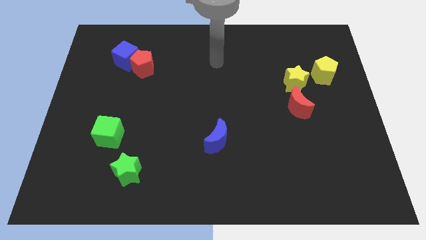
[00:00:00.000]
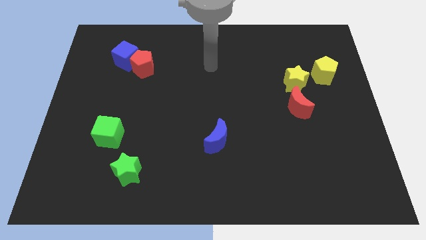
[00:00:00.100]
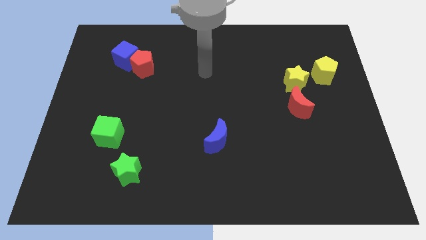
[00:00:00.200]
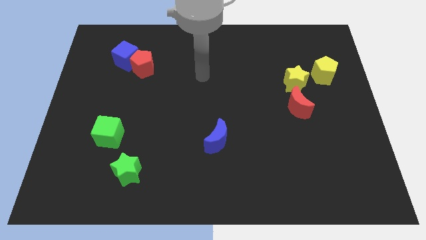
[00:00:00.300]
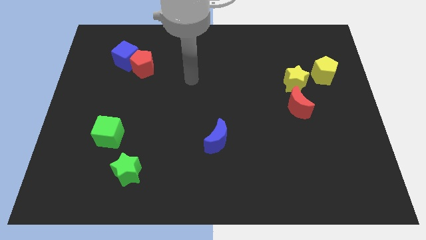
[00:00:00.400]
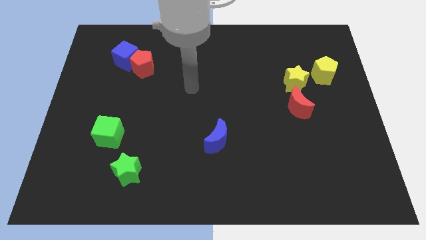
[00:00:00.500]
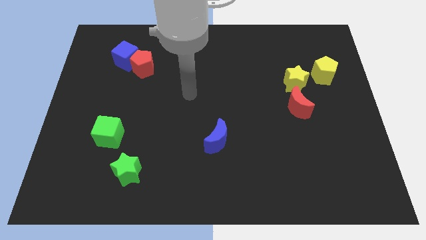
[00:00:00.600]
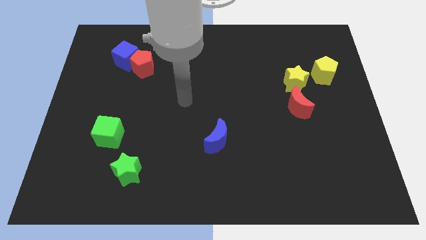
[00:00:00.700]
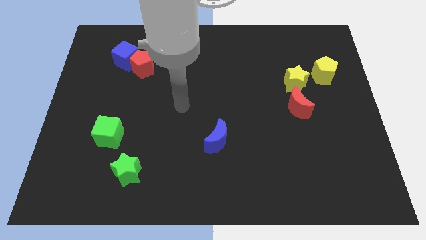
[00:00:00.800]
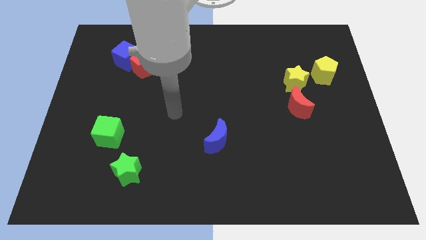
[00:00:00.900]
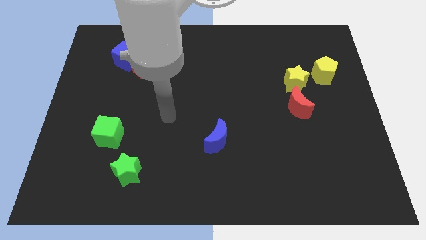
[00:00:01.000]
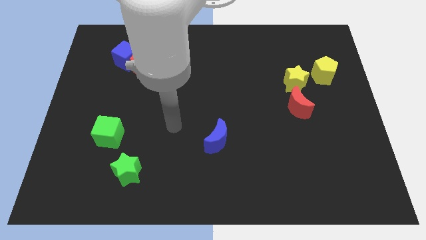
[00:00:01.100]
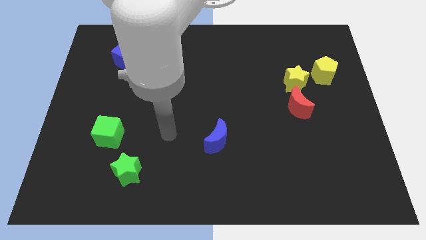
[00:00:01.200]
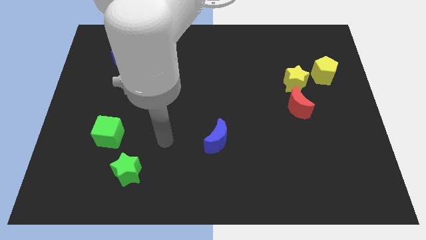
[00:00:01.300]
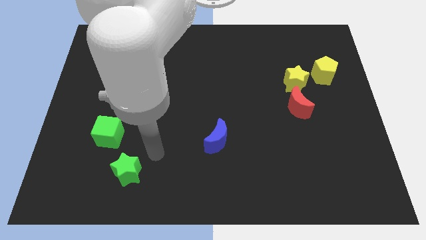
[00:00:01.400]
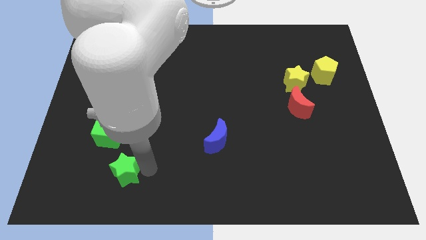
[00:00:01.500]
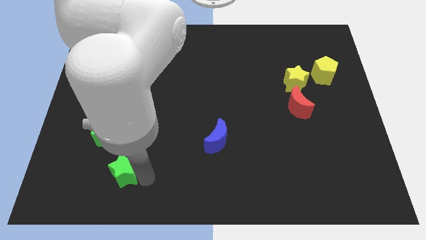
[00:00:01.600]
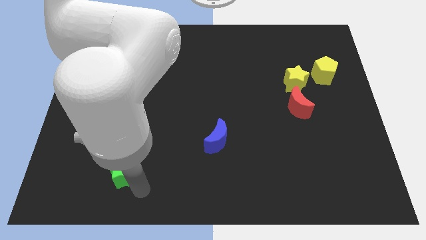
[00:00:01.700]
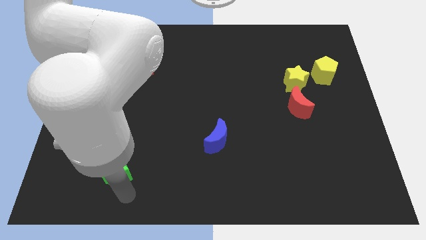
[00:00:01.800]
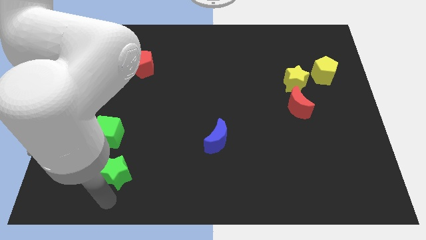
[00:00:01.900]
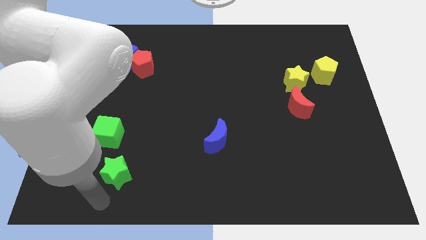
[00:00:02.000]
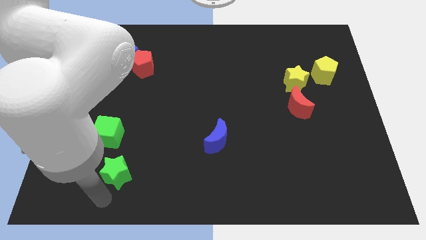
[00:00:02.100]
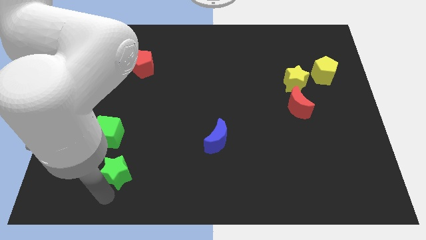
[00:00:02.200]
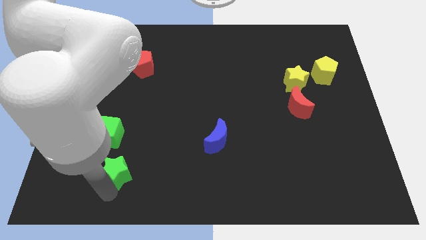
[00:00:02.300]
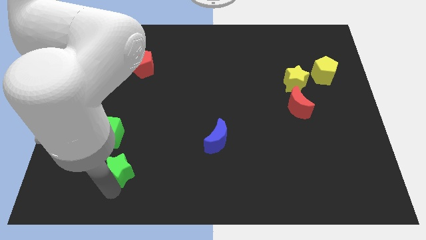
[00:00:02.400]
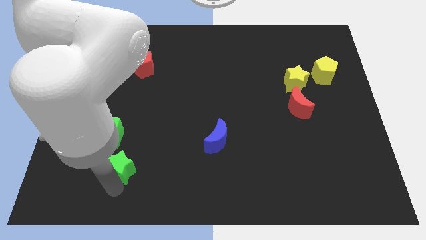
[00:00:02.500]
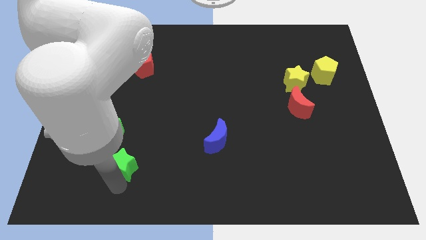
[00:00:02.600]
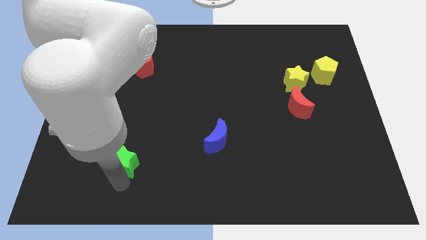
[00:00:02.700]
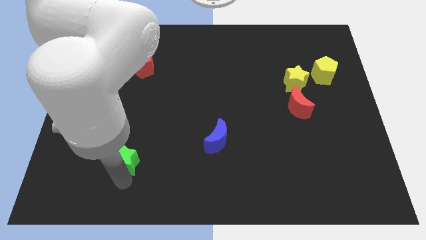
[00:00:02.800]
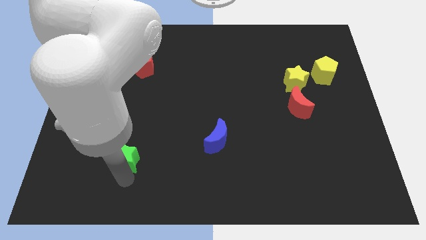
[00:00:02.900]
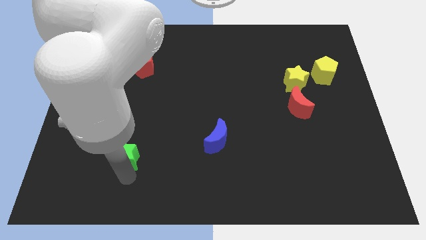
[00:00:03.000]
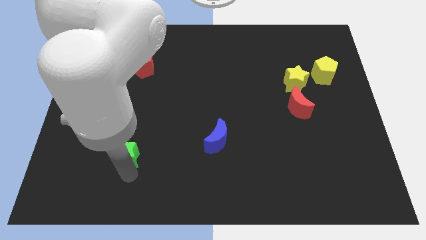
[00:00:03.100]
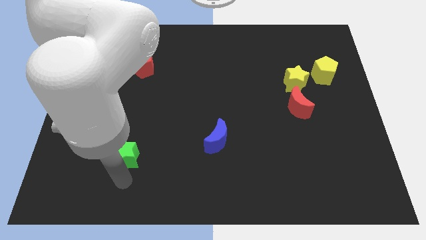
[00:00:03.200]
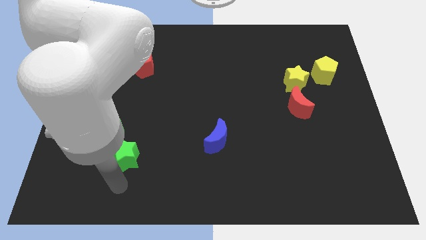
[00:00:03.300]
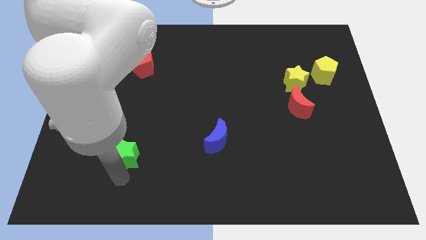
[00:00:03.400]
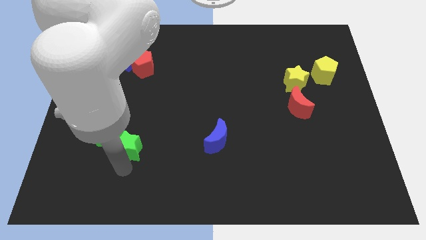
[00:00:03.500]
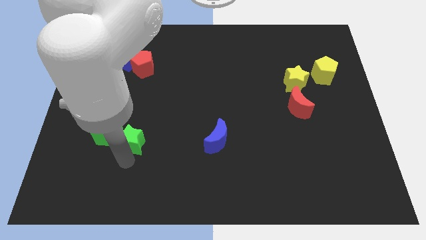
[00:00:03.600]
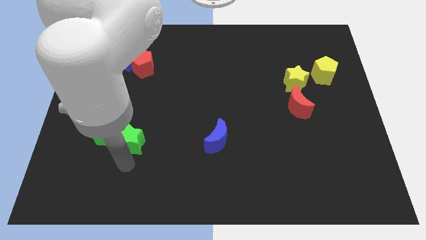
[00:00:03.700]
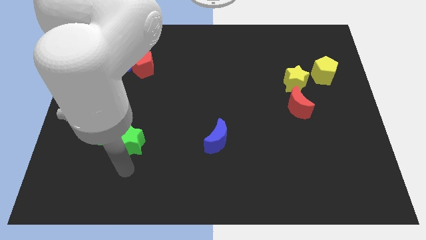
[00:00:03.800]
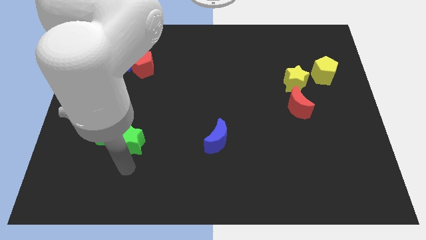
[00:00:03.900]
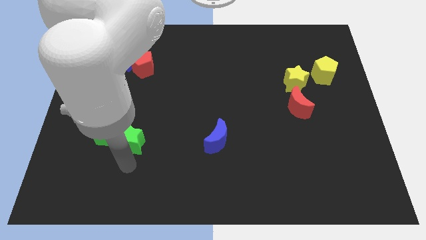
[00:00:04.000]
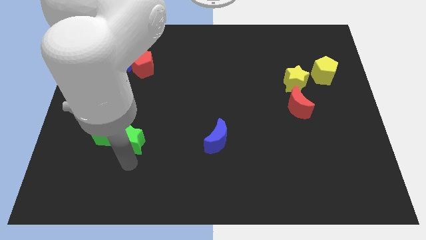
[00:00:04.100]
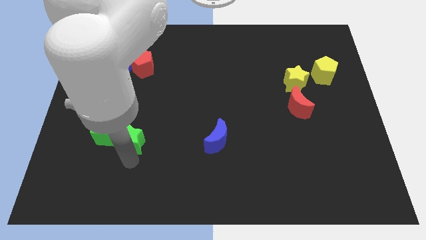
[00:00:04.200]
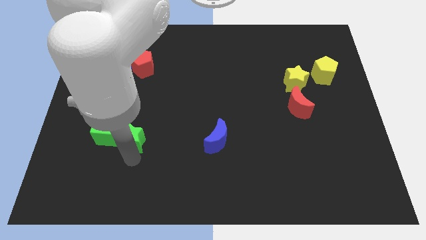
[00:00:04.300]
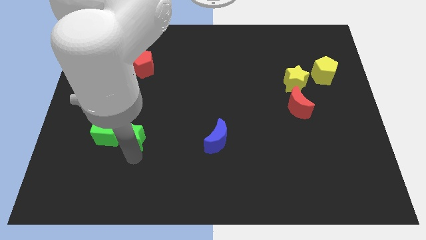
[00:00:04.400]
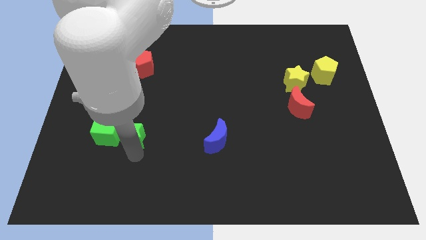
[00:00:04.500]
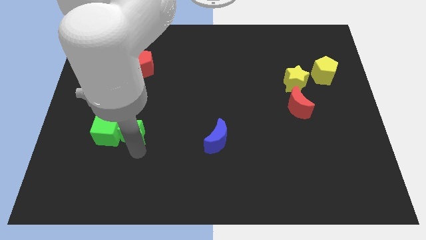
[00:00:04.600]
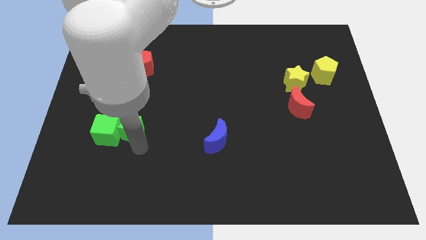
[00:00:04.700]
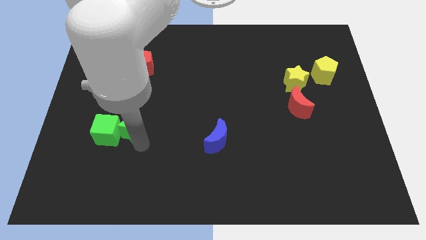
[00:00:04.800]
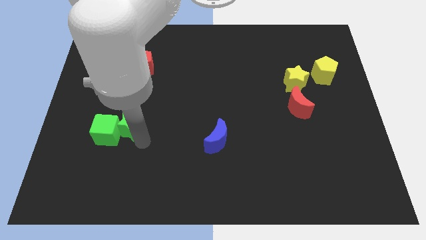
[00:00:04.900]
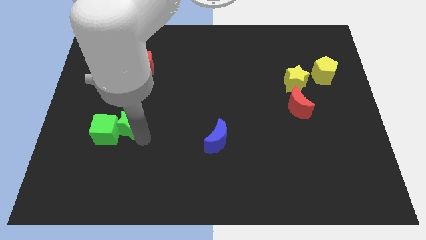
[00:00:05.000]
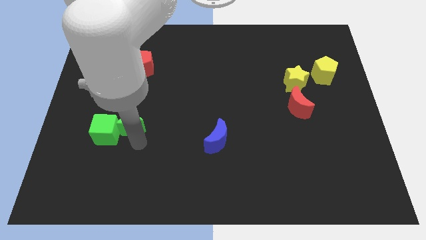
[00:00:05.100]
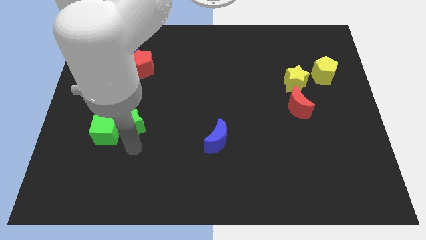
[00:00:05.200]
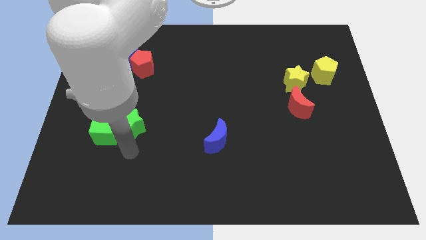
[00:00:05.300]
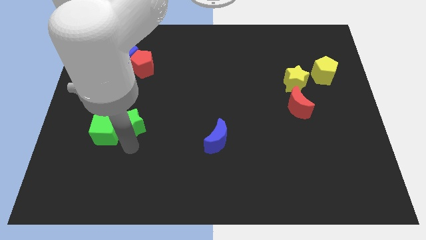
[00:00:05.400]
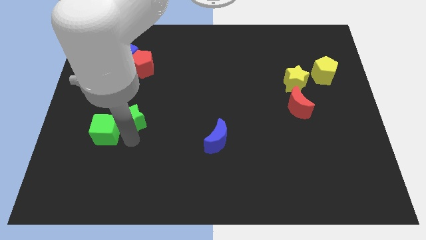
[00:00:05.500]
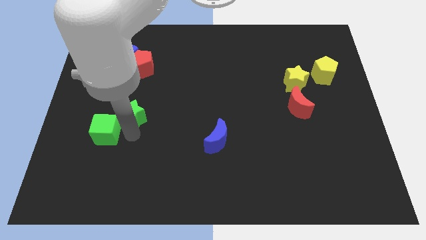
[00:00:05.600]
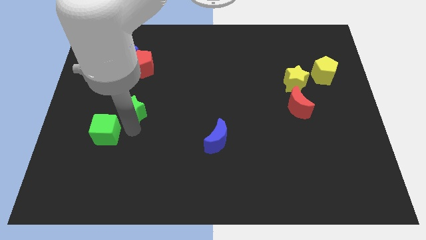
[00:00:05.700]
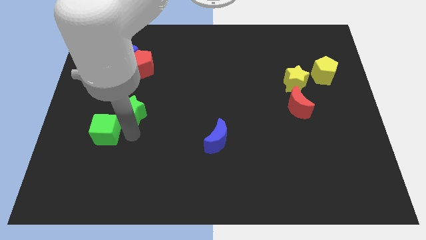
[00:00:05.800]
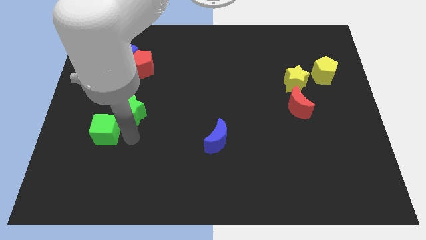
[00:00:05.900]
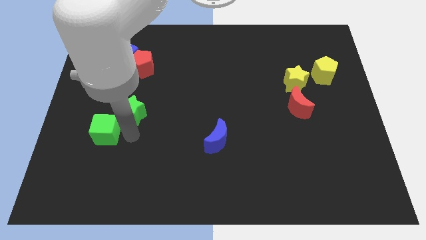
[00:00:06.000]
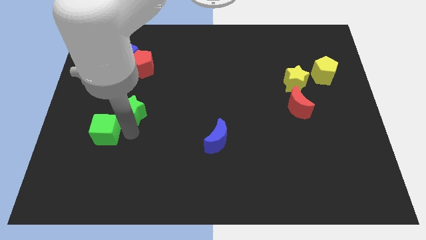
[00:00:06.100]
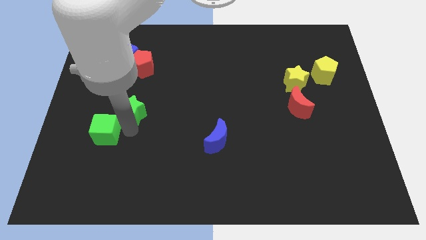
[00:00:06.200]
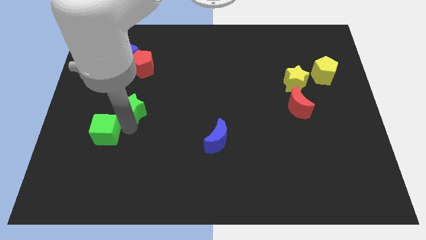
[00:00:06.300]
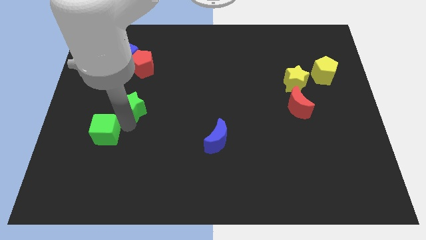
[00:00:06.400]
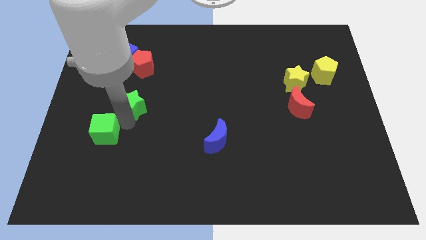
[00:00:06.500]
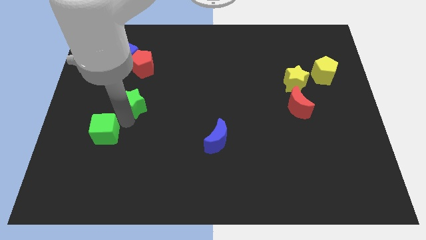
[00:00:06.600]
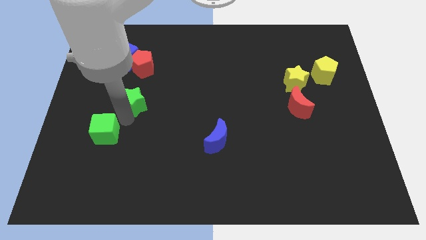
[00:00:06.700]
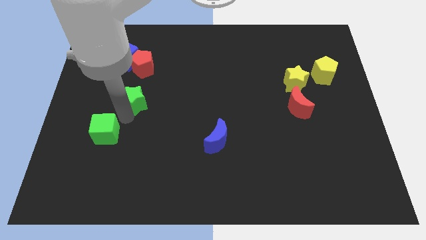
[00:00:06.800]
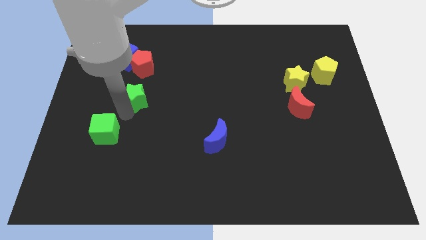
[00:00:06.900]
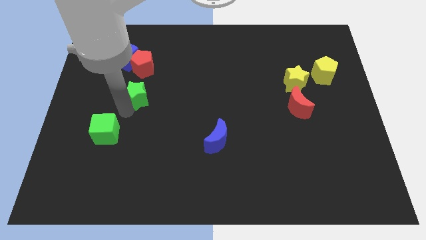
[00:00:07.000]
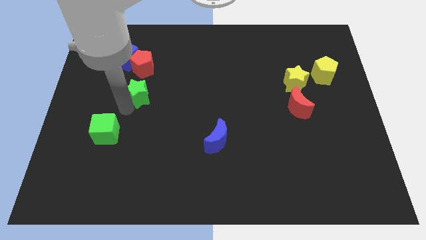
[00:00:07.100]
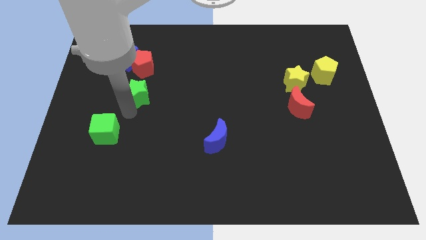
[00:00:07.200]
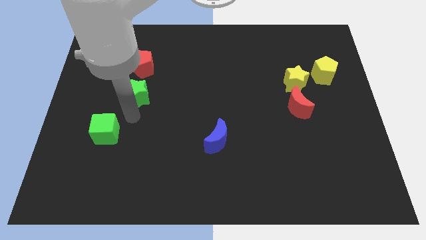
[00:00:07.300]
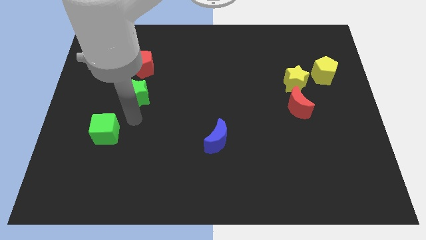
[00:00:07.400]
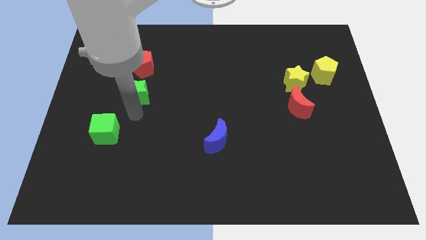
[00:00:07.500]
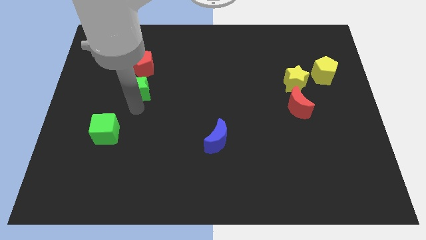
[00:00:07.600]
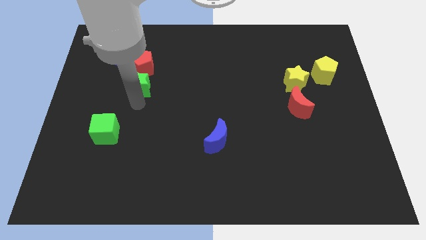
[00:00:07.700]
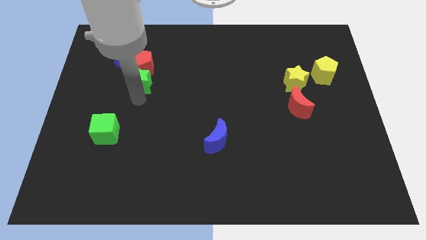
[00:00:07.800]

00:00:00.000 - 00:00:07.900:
push the green star close to the red pentagon
